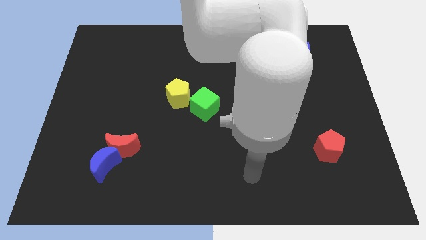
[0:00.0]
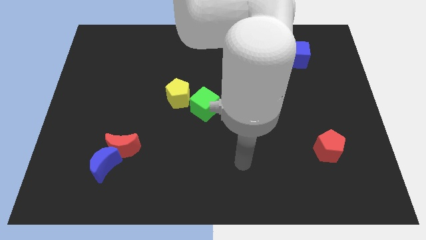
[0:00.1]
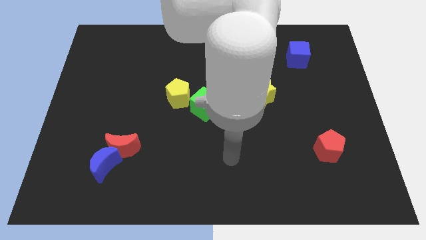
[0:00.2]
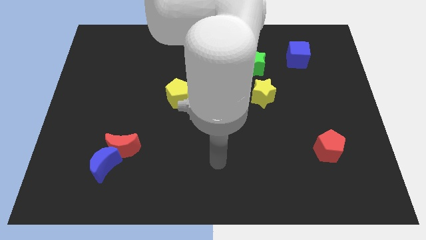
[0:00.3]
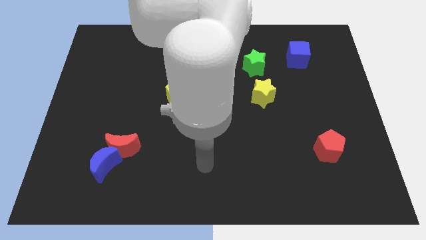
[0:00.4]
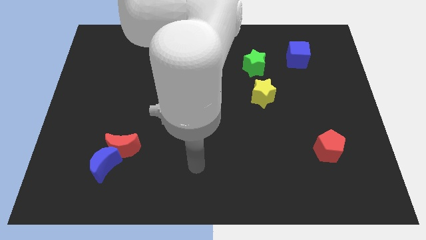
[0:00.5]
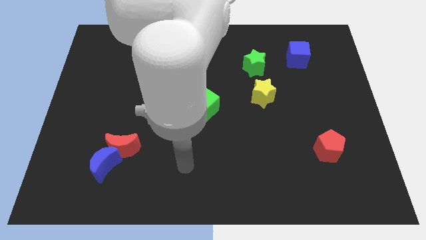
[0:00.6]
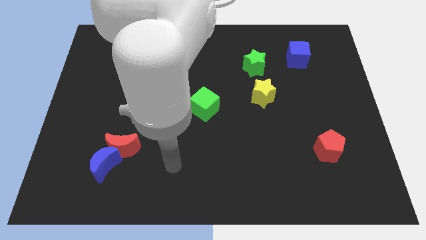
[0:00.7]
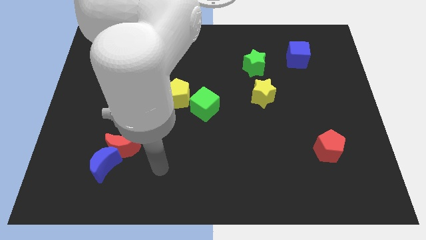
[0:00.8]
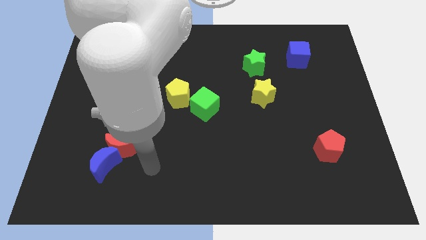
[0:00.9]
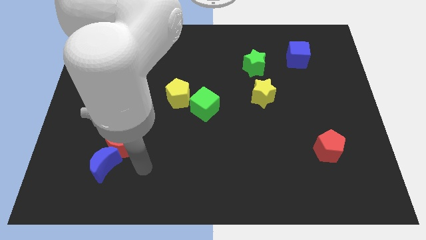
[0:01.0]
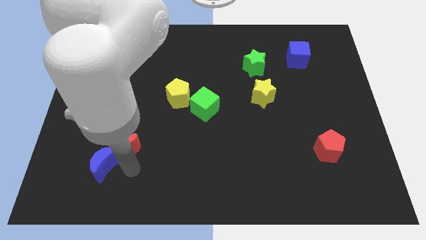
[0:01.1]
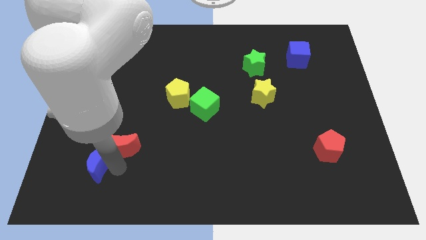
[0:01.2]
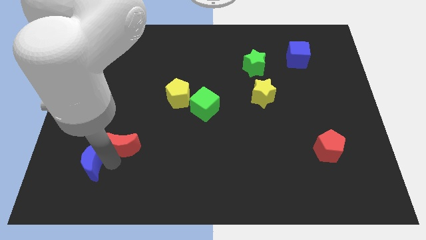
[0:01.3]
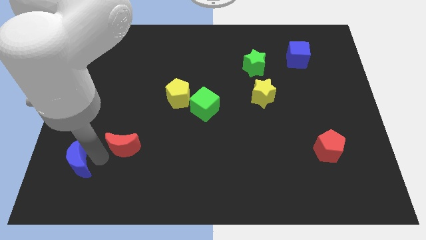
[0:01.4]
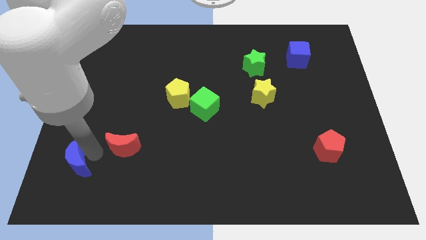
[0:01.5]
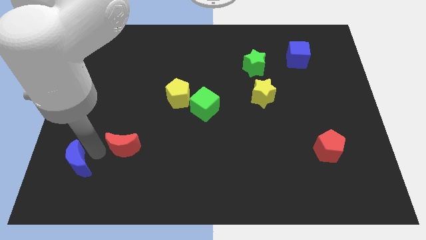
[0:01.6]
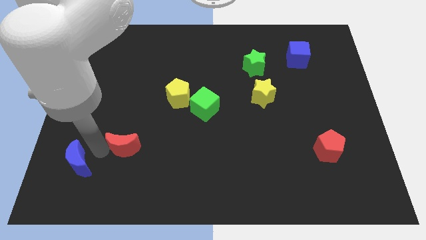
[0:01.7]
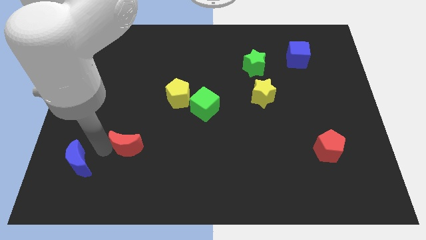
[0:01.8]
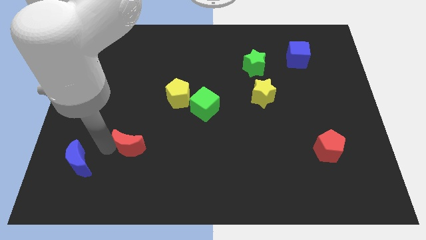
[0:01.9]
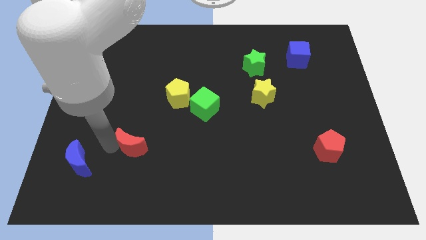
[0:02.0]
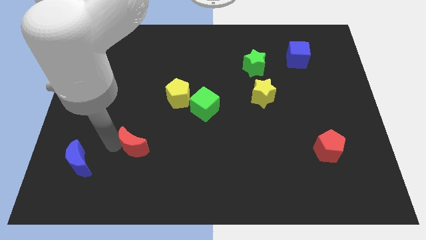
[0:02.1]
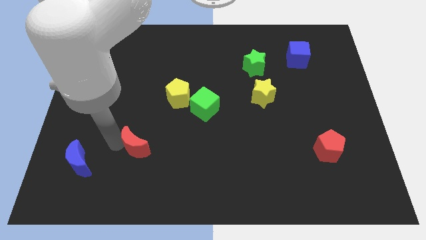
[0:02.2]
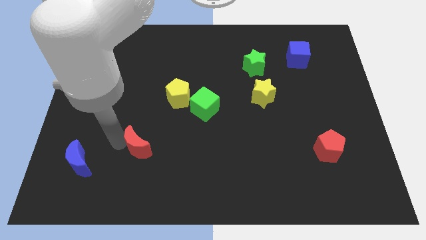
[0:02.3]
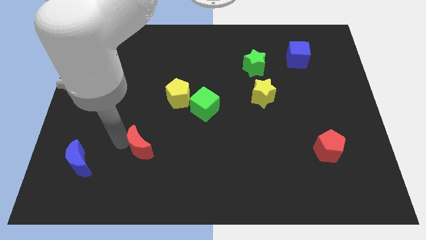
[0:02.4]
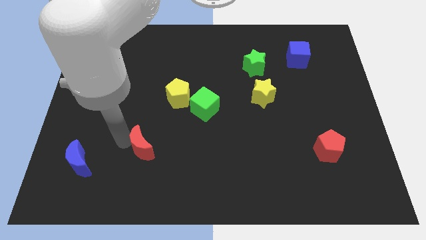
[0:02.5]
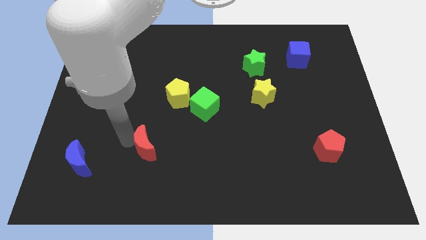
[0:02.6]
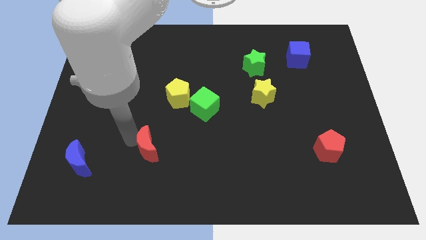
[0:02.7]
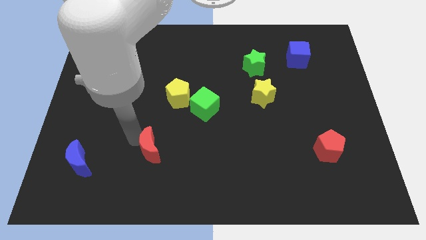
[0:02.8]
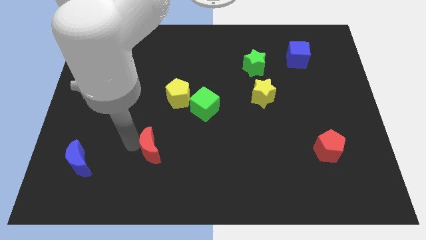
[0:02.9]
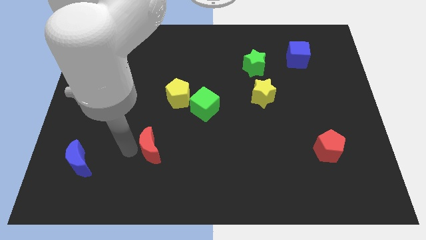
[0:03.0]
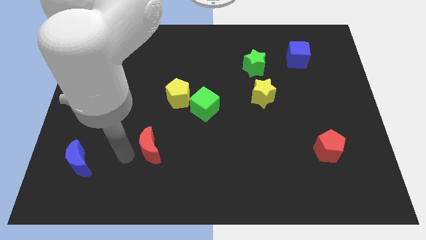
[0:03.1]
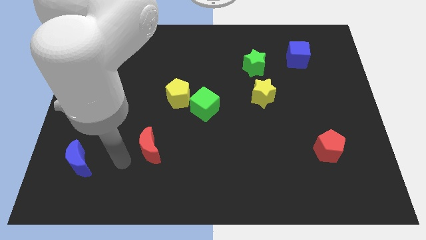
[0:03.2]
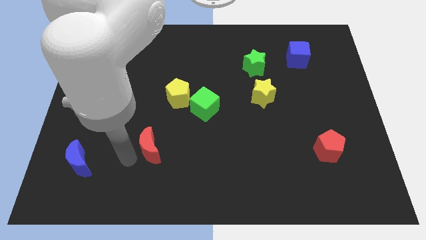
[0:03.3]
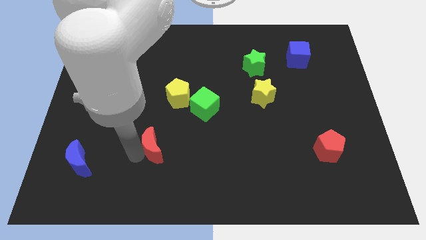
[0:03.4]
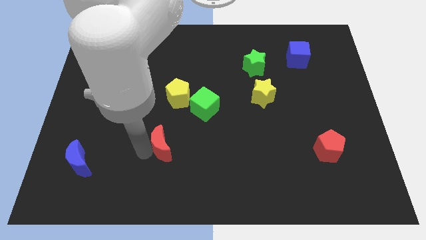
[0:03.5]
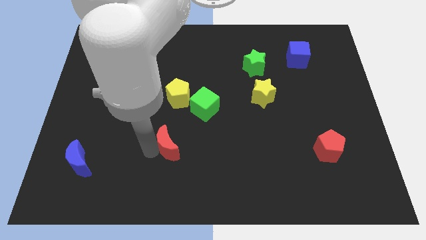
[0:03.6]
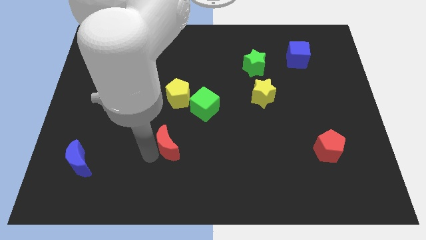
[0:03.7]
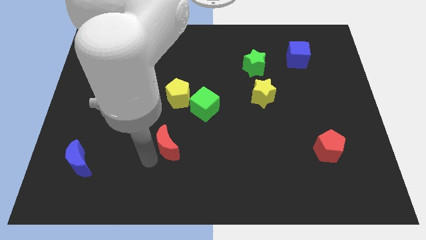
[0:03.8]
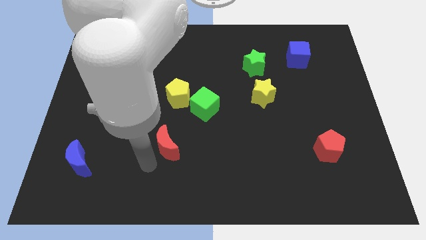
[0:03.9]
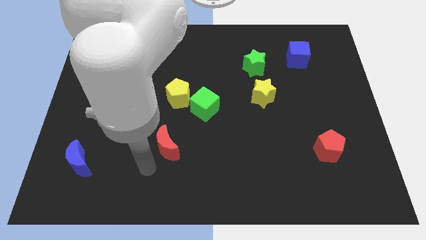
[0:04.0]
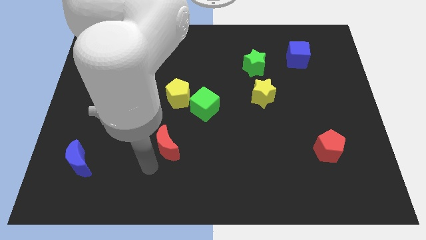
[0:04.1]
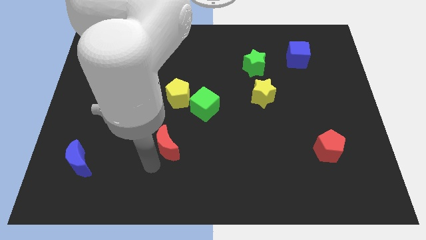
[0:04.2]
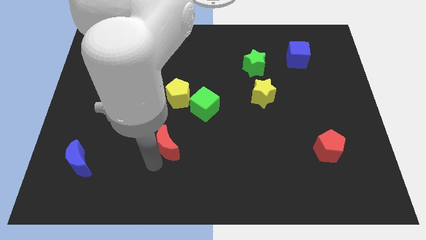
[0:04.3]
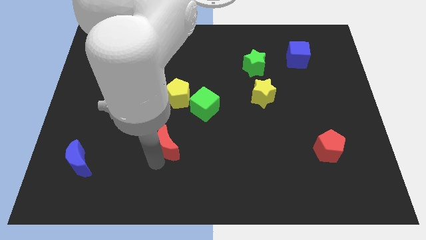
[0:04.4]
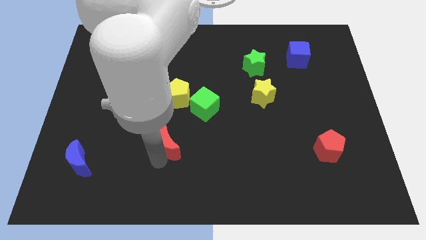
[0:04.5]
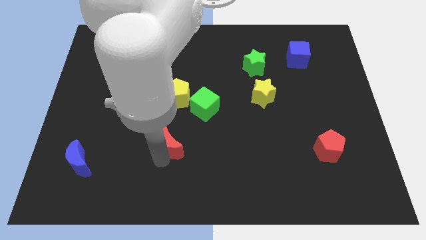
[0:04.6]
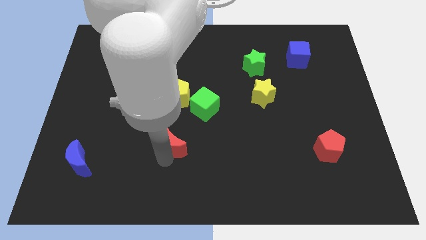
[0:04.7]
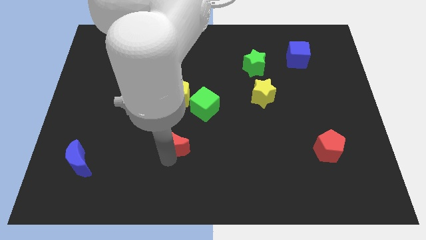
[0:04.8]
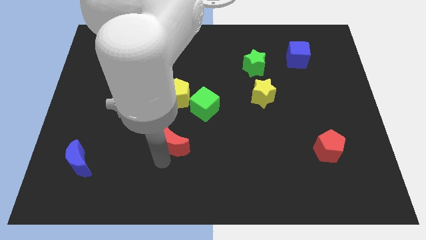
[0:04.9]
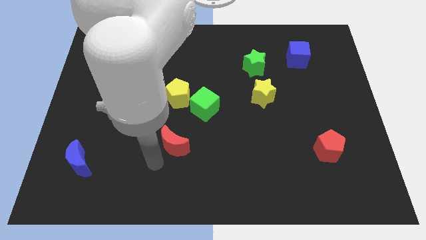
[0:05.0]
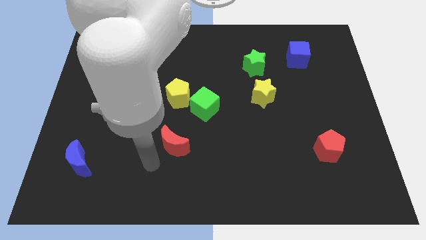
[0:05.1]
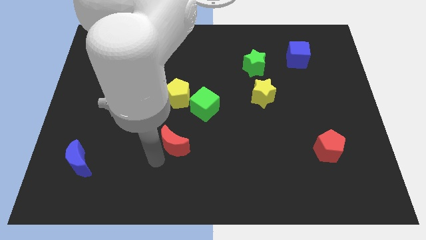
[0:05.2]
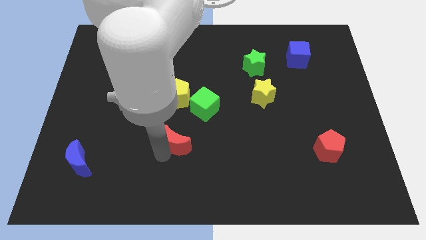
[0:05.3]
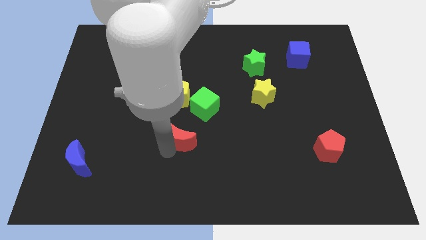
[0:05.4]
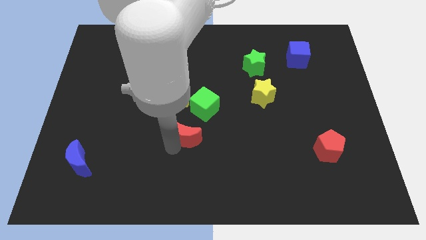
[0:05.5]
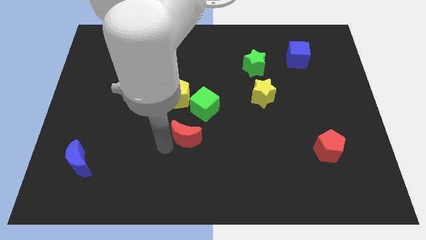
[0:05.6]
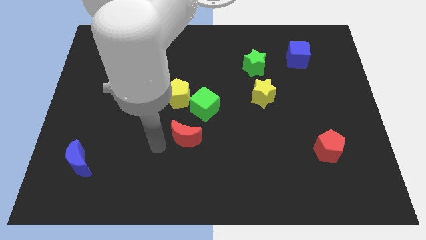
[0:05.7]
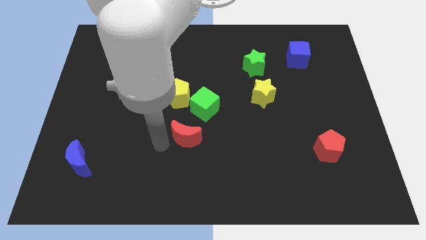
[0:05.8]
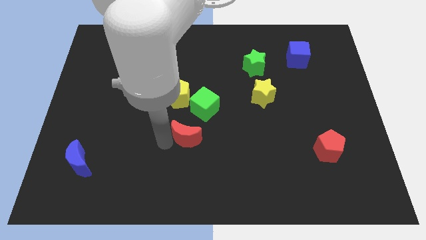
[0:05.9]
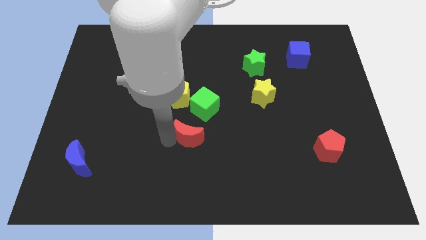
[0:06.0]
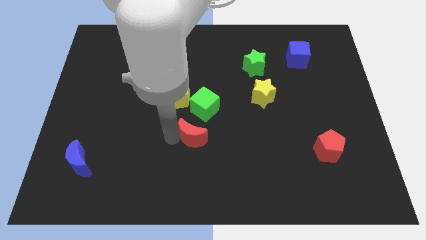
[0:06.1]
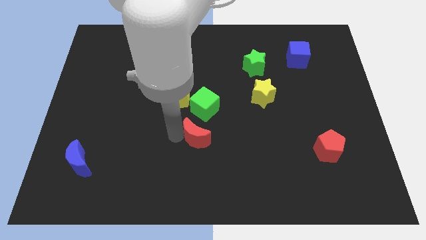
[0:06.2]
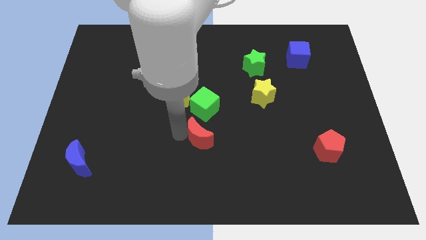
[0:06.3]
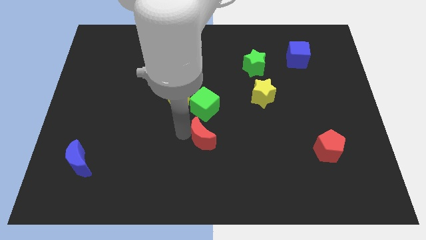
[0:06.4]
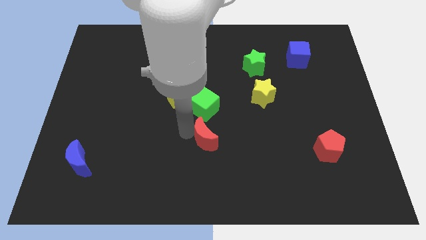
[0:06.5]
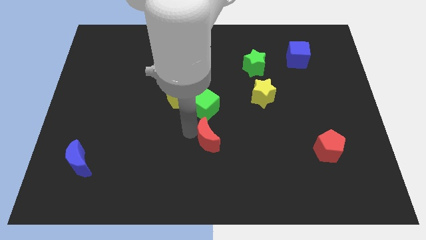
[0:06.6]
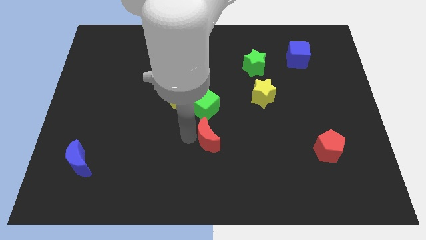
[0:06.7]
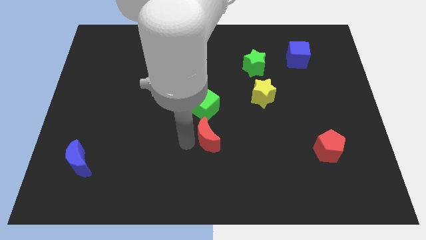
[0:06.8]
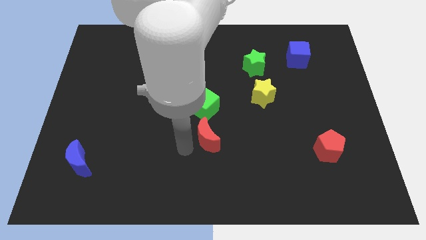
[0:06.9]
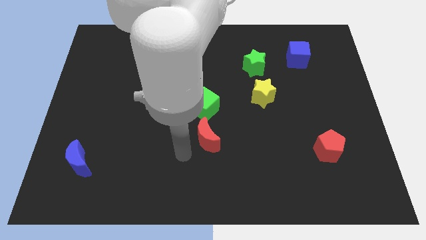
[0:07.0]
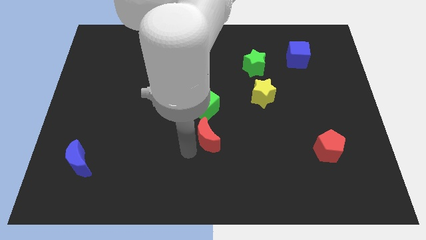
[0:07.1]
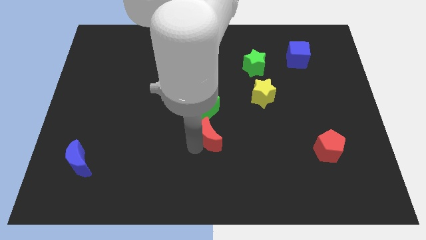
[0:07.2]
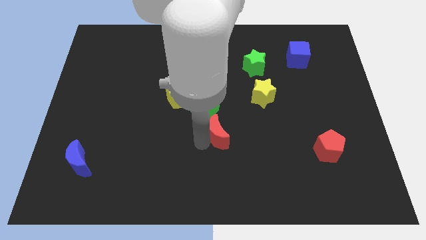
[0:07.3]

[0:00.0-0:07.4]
push the red moon to the bottom right side of the green cube

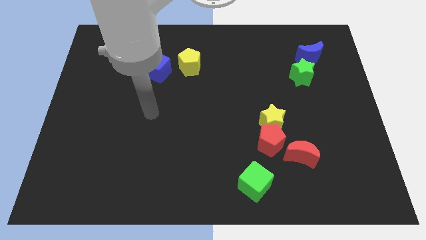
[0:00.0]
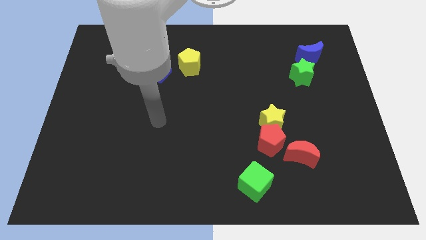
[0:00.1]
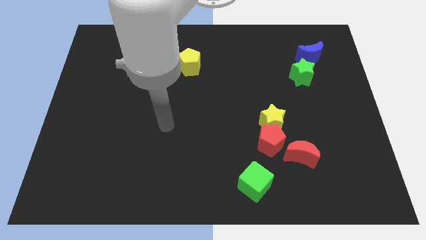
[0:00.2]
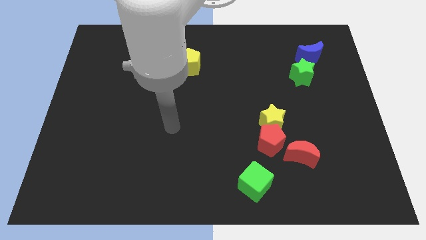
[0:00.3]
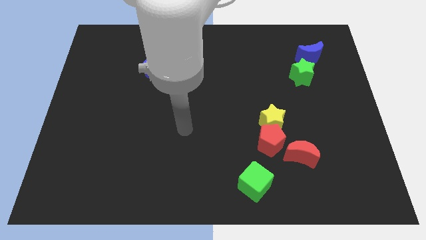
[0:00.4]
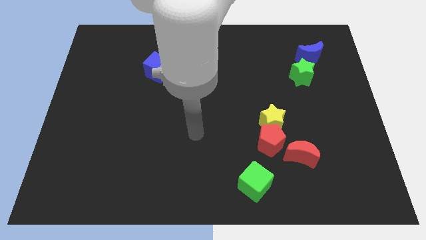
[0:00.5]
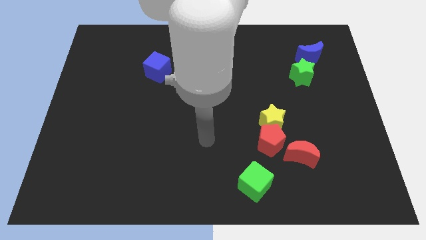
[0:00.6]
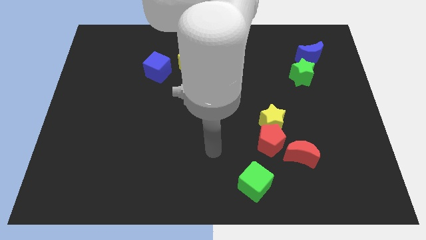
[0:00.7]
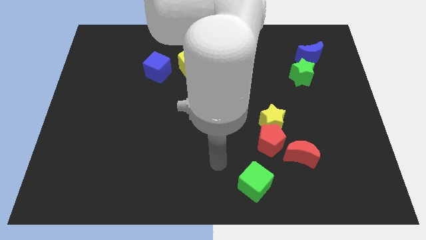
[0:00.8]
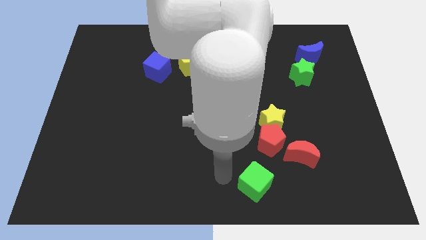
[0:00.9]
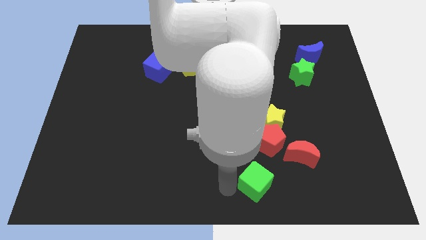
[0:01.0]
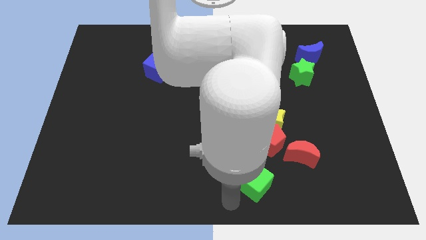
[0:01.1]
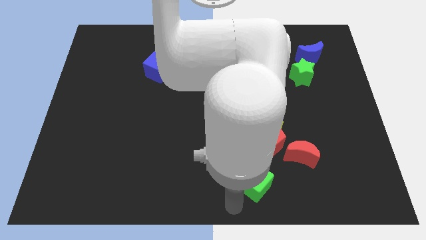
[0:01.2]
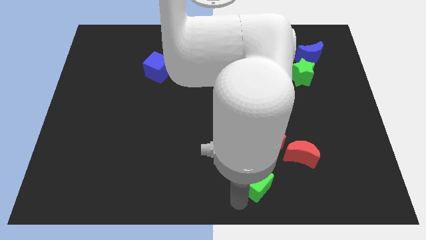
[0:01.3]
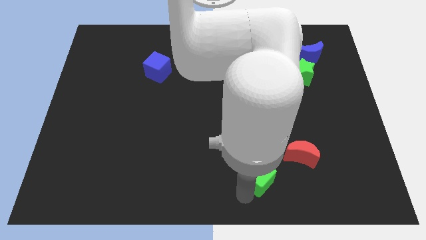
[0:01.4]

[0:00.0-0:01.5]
move the green cube below the yellow star
